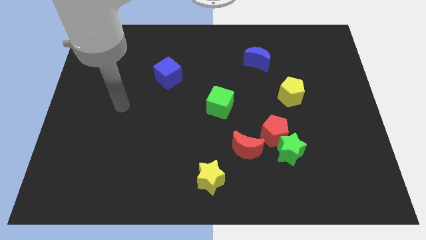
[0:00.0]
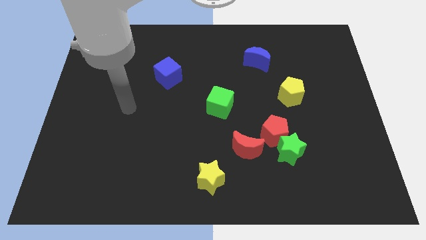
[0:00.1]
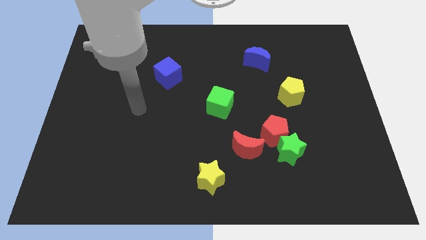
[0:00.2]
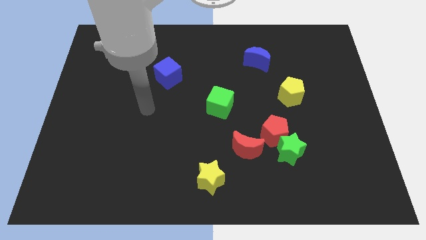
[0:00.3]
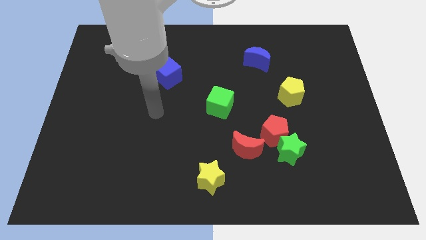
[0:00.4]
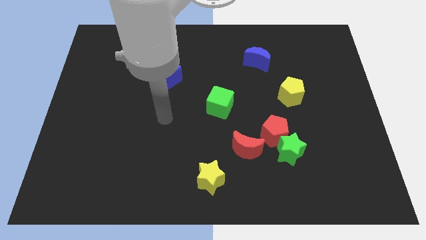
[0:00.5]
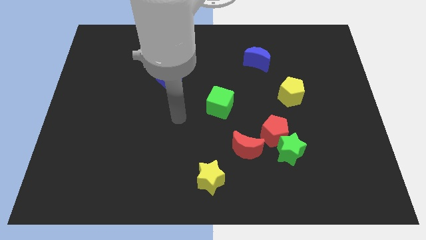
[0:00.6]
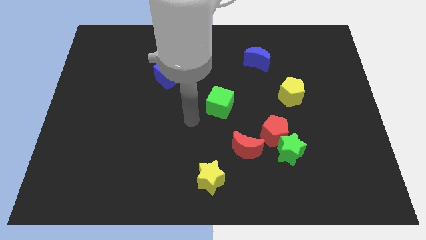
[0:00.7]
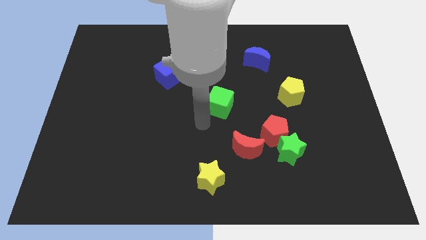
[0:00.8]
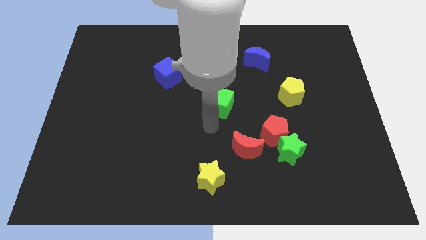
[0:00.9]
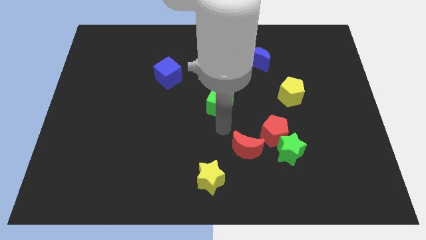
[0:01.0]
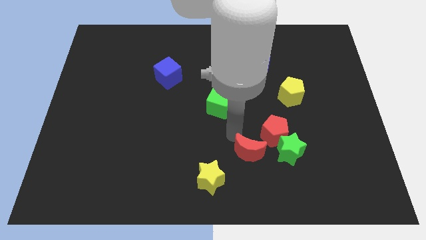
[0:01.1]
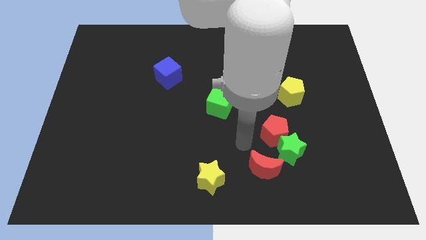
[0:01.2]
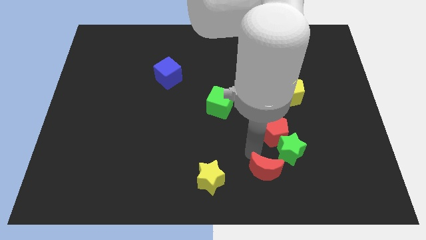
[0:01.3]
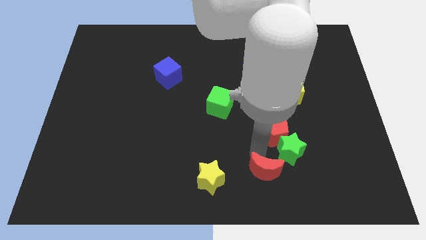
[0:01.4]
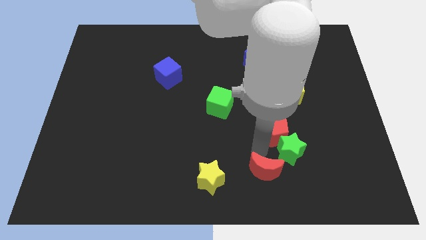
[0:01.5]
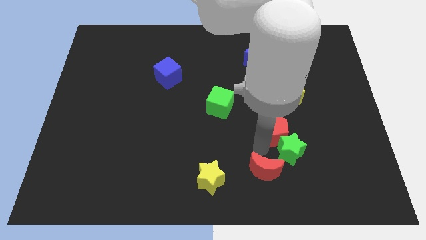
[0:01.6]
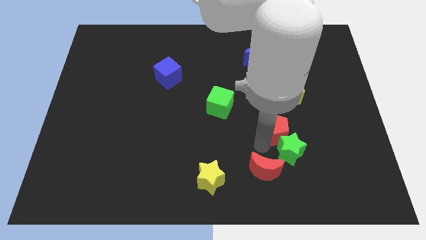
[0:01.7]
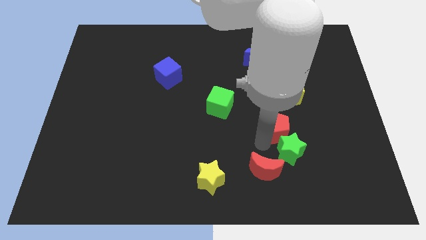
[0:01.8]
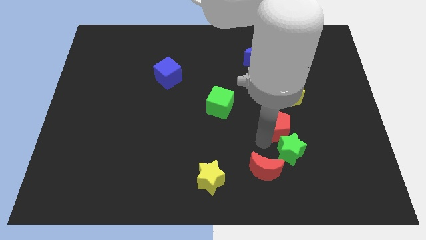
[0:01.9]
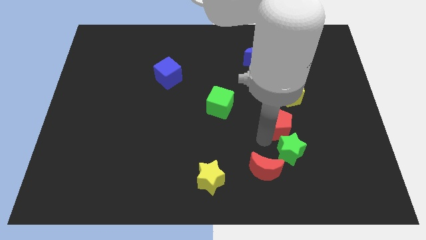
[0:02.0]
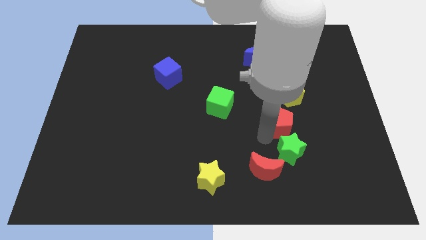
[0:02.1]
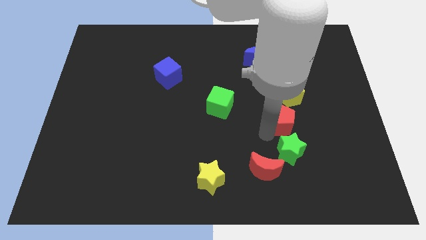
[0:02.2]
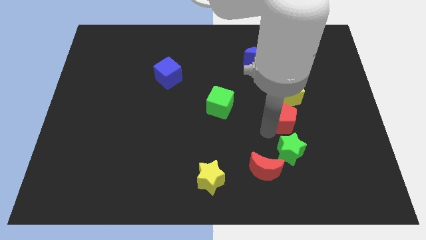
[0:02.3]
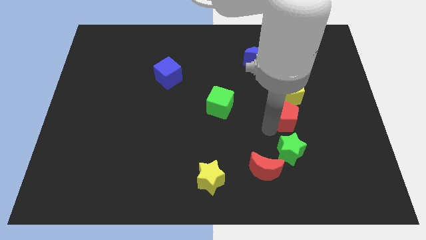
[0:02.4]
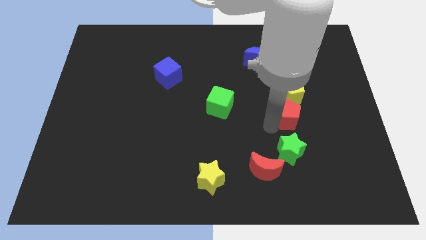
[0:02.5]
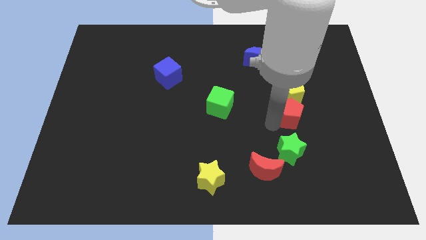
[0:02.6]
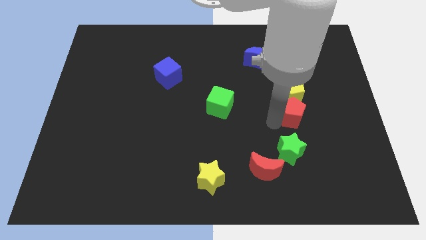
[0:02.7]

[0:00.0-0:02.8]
slightly slide the red pentagon upwards and right diagonally

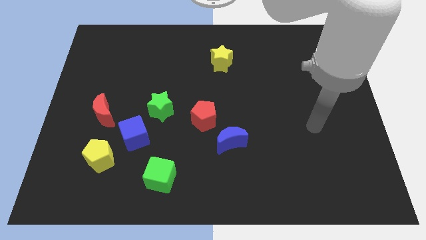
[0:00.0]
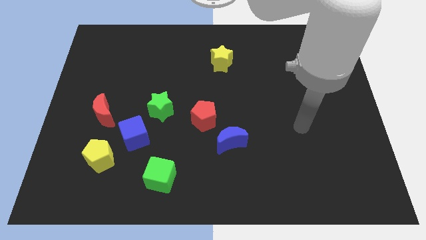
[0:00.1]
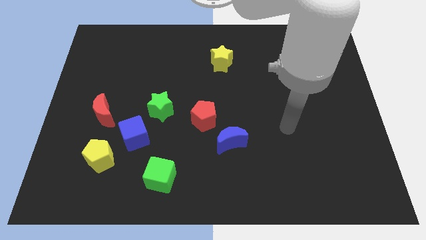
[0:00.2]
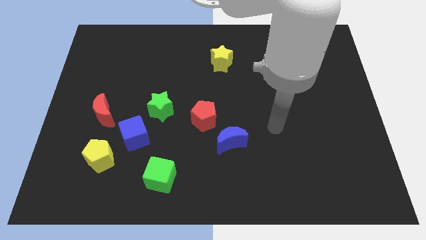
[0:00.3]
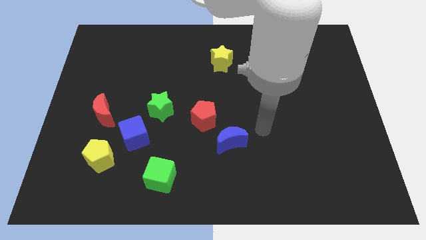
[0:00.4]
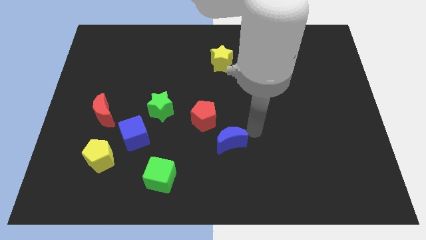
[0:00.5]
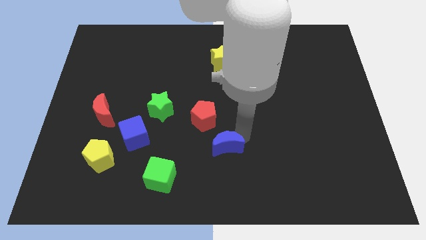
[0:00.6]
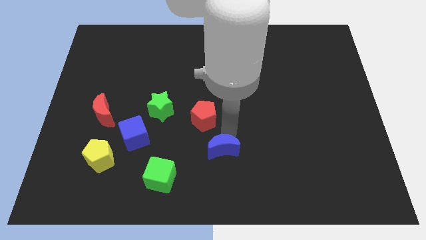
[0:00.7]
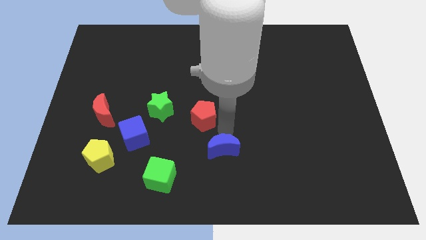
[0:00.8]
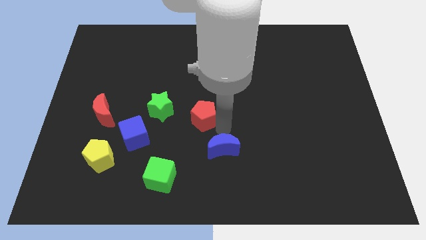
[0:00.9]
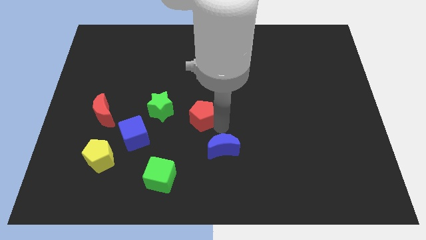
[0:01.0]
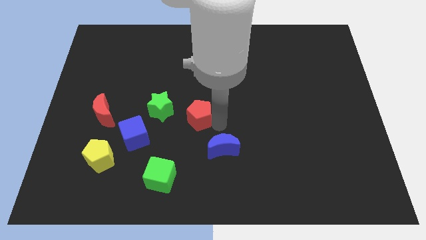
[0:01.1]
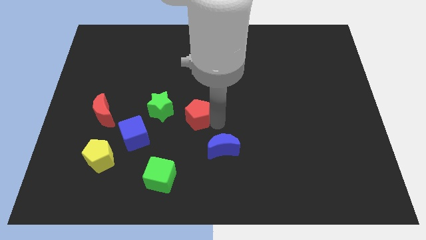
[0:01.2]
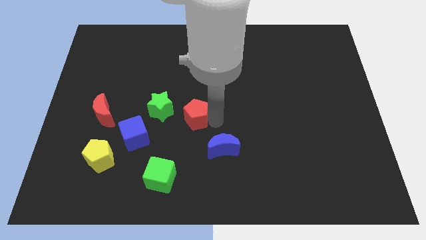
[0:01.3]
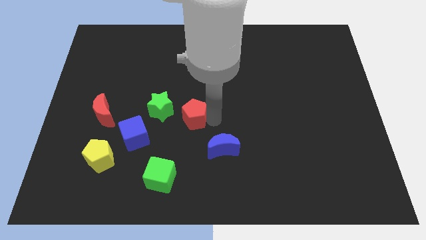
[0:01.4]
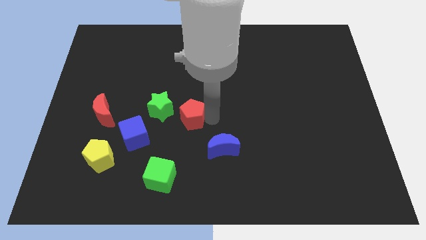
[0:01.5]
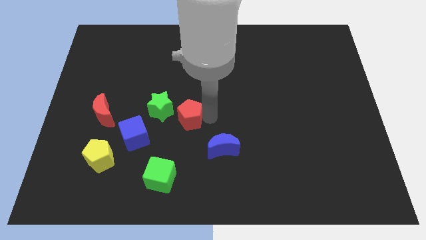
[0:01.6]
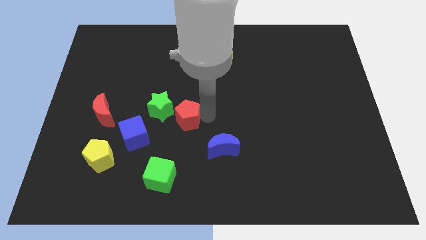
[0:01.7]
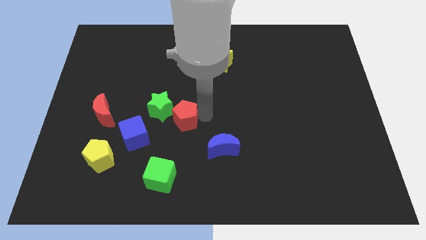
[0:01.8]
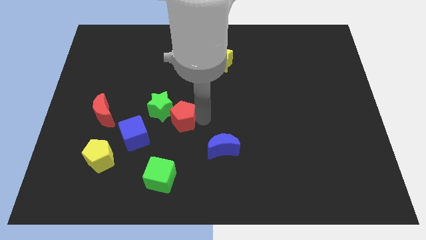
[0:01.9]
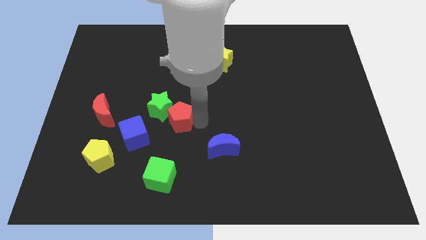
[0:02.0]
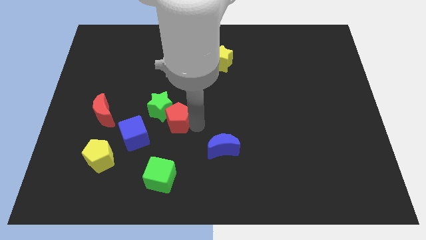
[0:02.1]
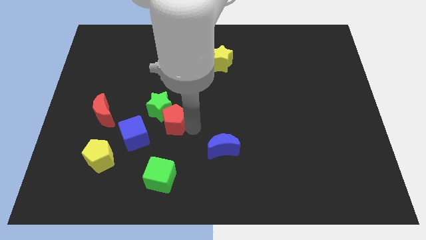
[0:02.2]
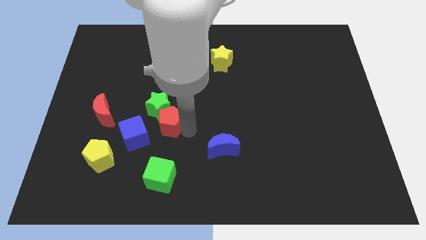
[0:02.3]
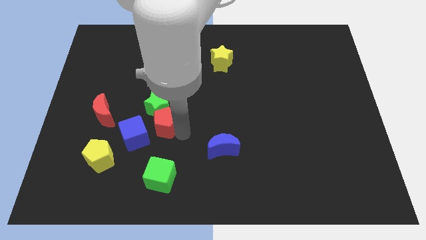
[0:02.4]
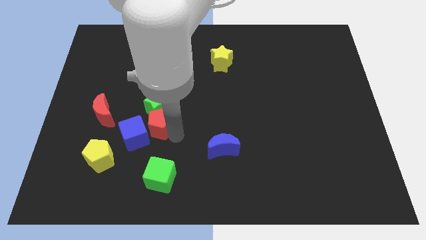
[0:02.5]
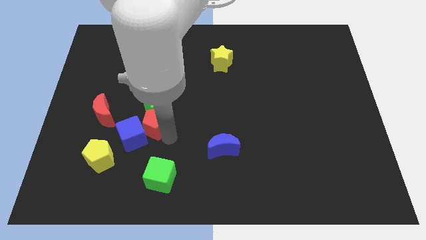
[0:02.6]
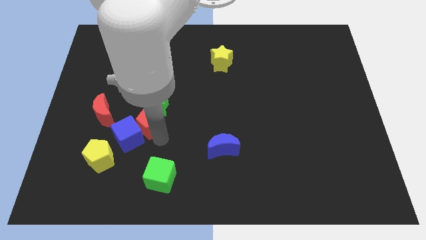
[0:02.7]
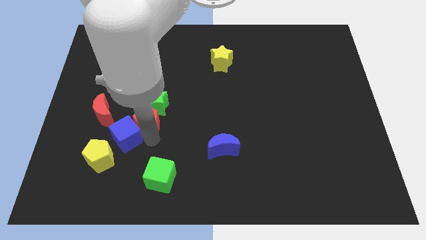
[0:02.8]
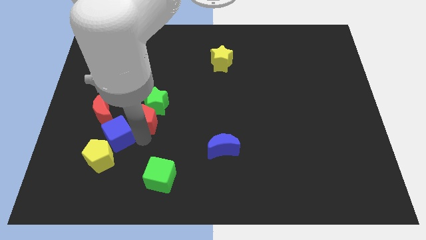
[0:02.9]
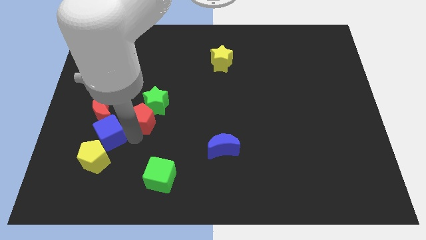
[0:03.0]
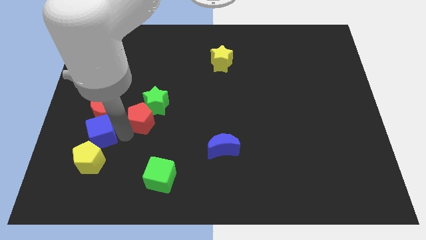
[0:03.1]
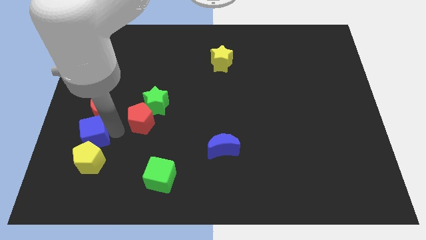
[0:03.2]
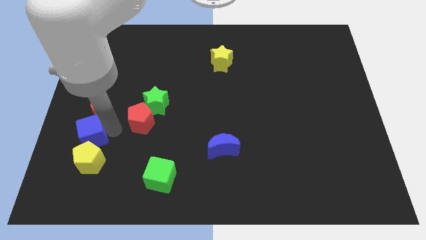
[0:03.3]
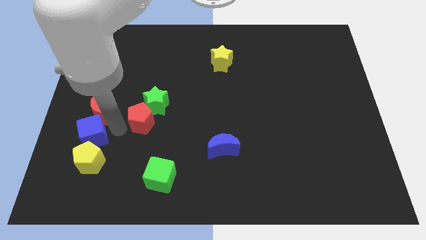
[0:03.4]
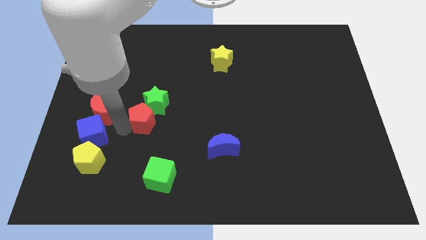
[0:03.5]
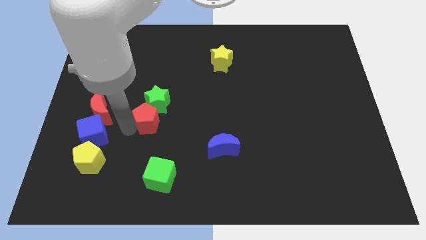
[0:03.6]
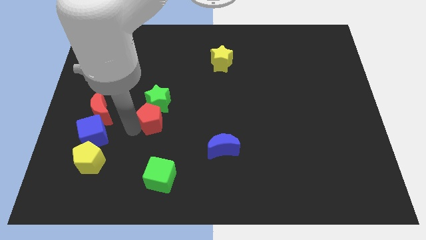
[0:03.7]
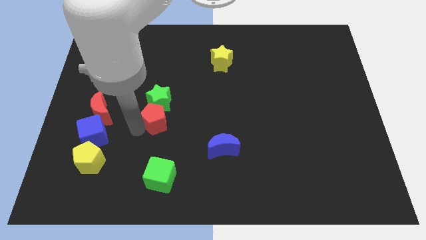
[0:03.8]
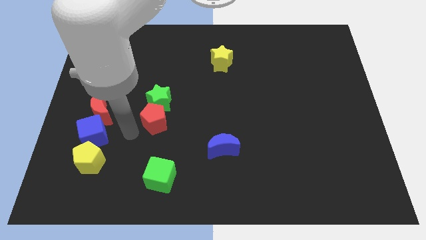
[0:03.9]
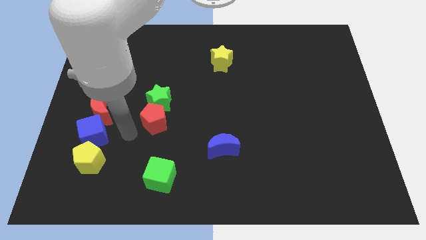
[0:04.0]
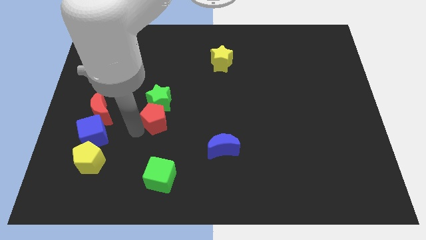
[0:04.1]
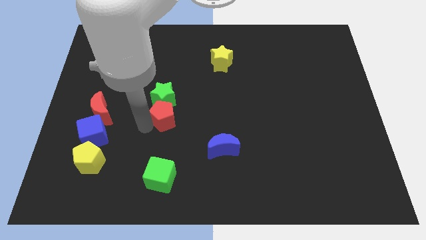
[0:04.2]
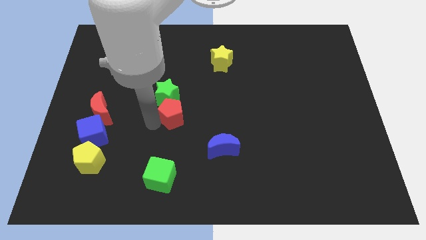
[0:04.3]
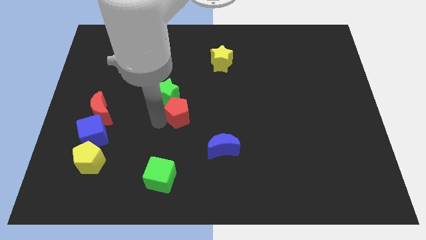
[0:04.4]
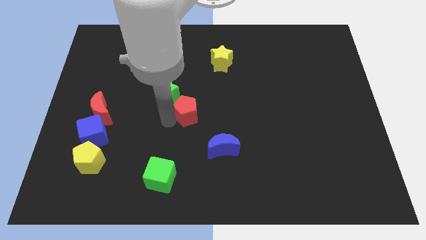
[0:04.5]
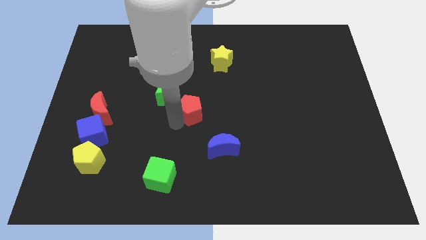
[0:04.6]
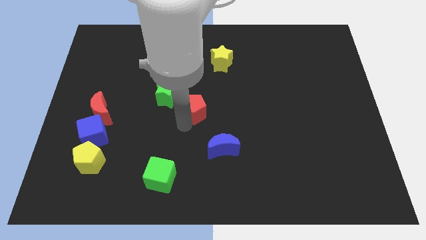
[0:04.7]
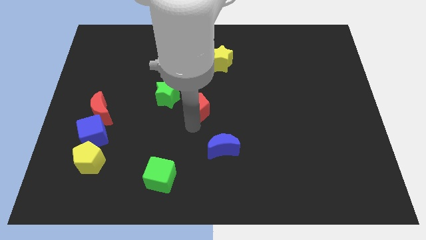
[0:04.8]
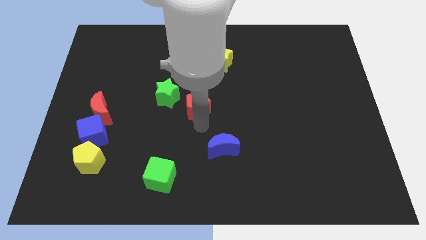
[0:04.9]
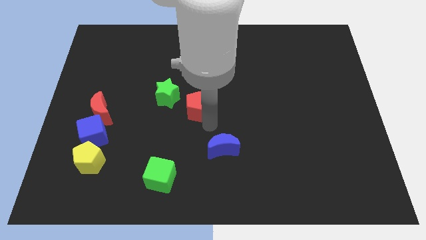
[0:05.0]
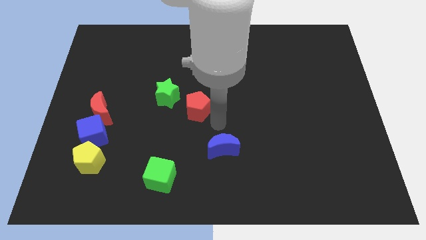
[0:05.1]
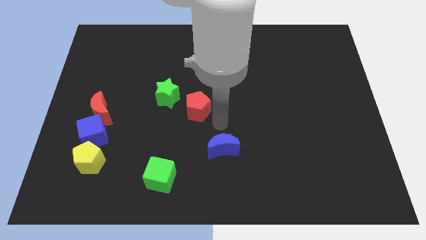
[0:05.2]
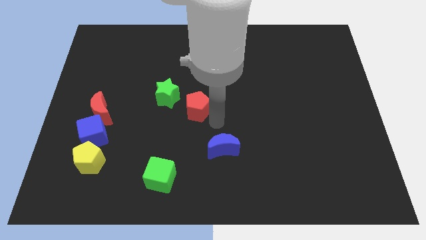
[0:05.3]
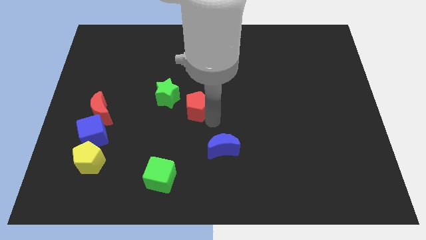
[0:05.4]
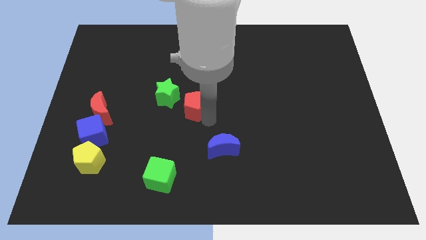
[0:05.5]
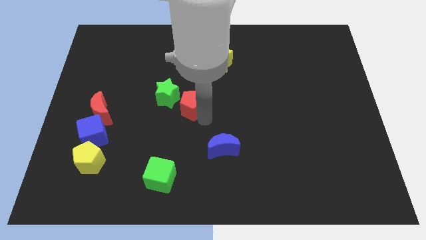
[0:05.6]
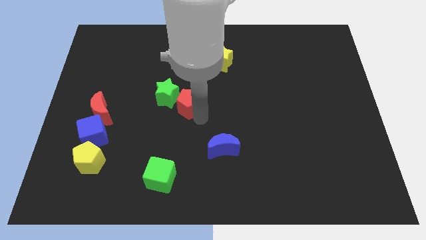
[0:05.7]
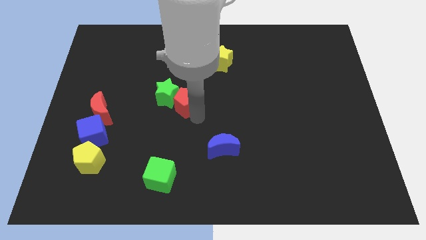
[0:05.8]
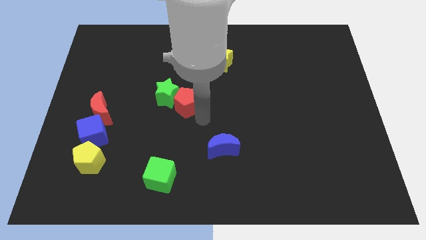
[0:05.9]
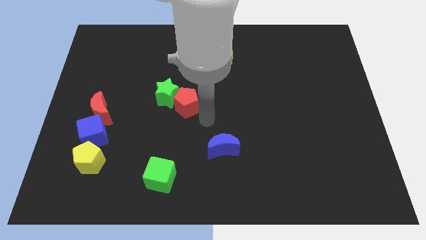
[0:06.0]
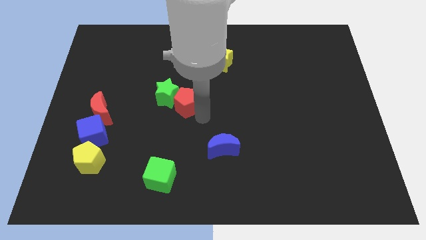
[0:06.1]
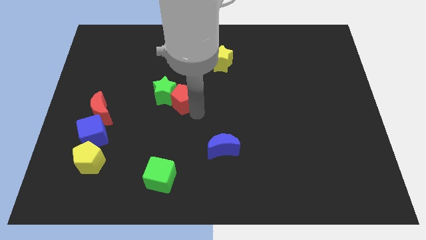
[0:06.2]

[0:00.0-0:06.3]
slide the red pentagon diagonally up and left a little
